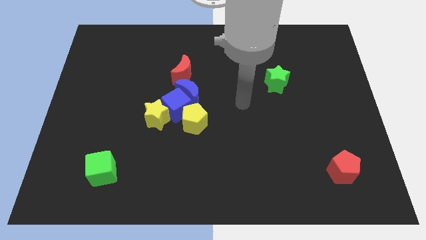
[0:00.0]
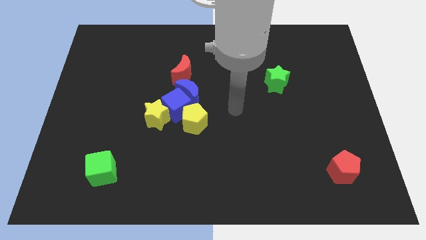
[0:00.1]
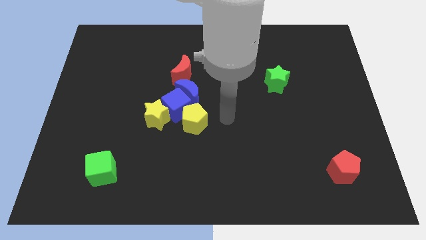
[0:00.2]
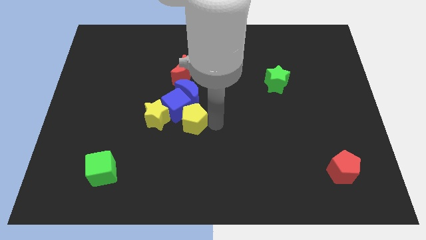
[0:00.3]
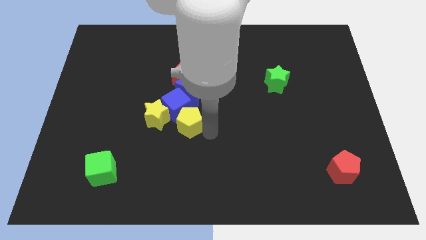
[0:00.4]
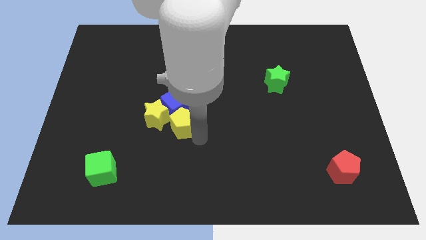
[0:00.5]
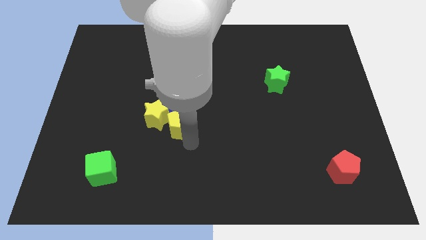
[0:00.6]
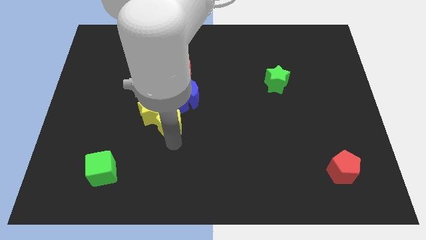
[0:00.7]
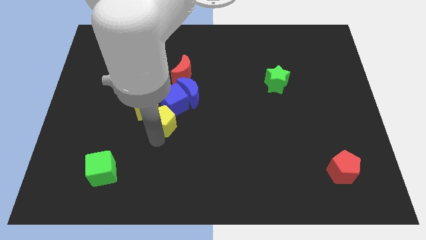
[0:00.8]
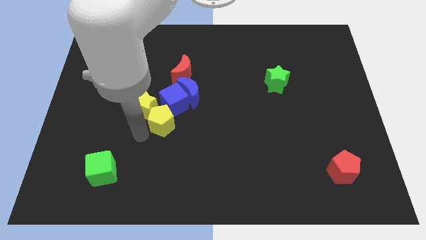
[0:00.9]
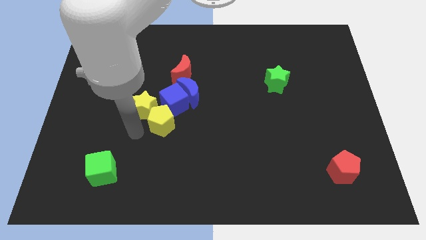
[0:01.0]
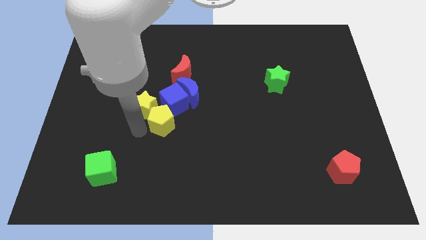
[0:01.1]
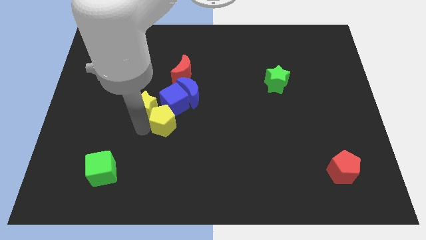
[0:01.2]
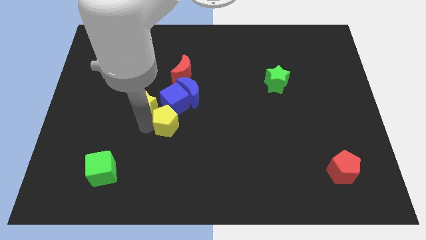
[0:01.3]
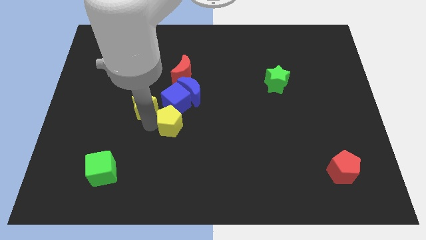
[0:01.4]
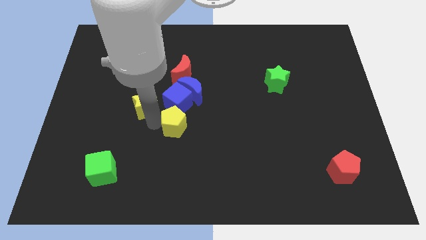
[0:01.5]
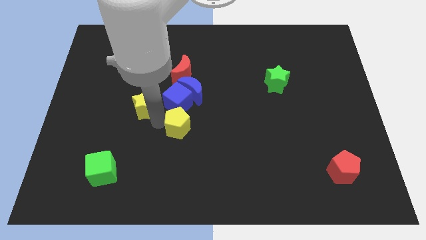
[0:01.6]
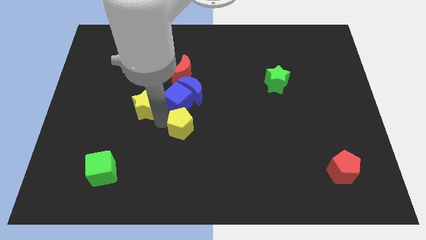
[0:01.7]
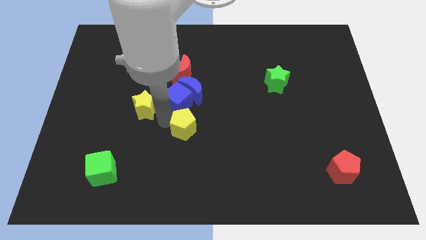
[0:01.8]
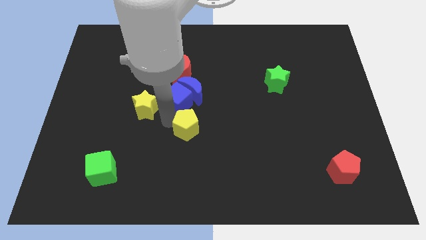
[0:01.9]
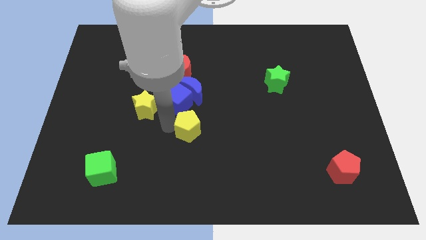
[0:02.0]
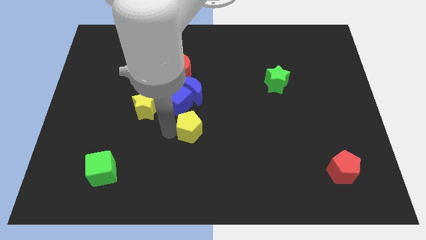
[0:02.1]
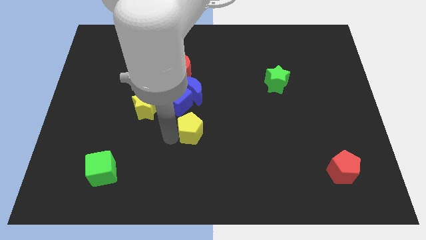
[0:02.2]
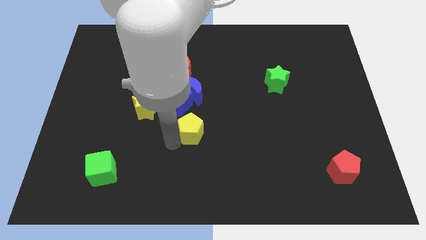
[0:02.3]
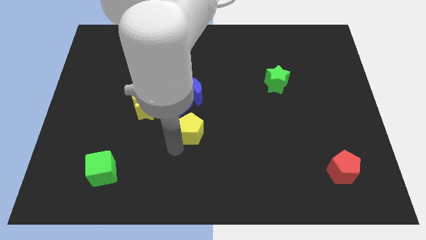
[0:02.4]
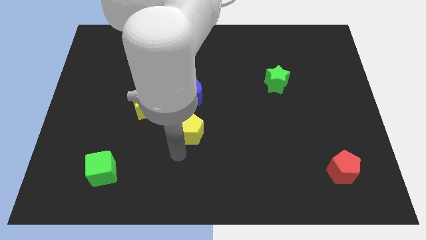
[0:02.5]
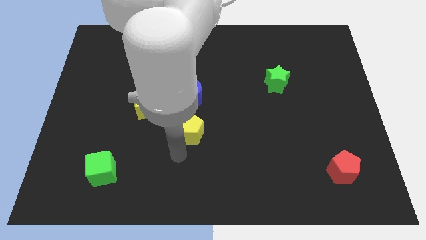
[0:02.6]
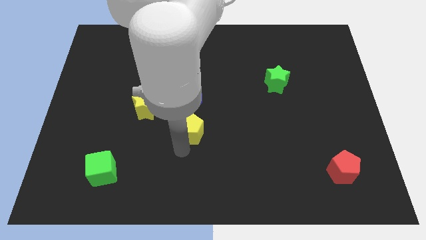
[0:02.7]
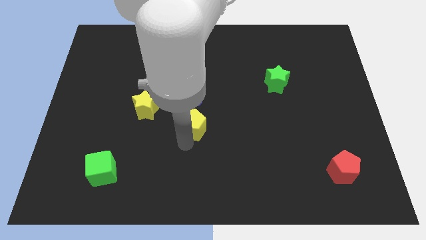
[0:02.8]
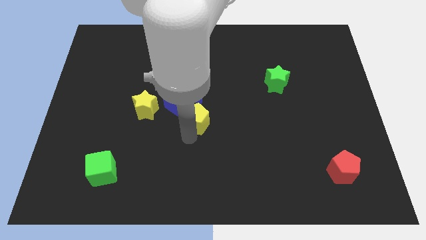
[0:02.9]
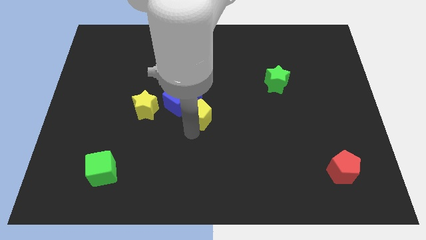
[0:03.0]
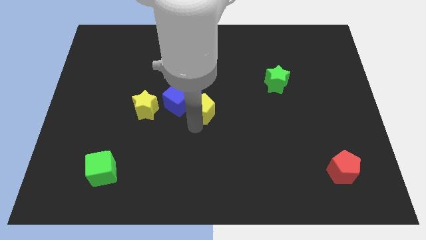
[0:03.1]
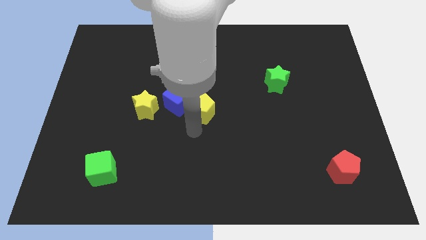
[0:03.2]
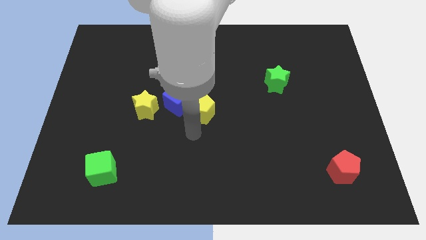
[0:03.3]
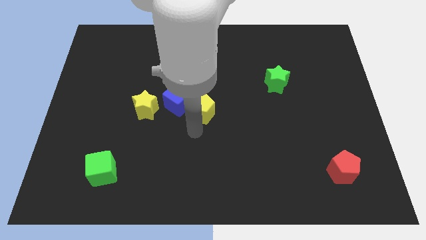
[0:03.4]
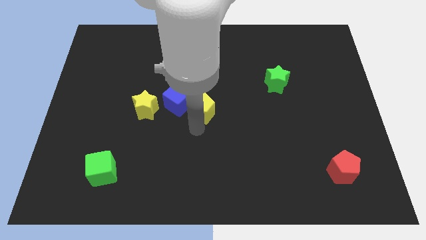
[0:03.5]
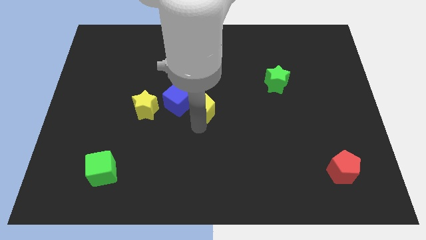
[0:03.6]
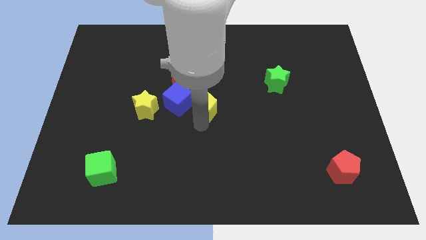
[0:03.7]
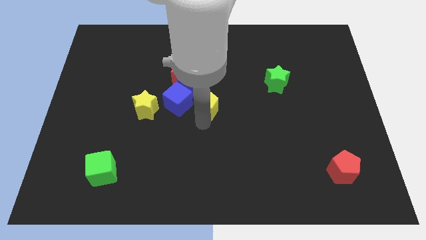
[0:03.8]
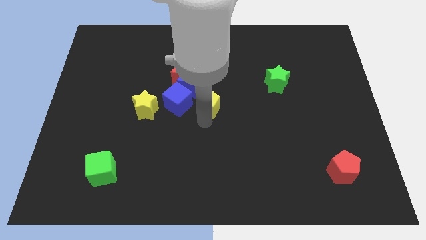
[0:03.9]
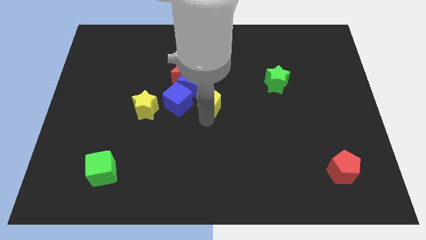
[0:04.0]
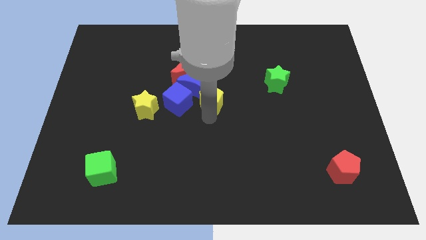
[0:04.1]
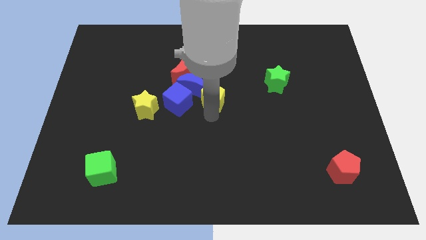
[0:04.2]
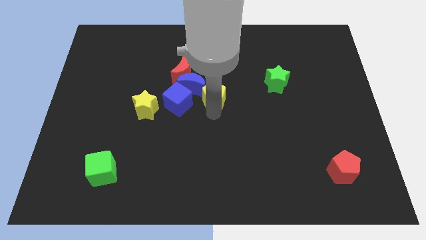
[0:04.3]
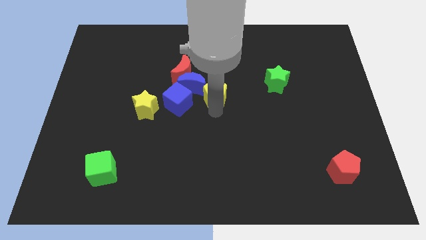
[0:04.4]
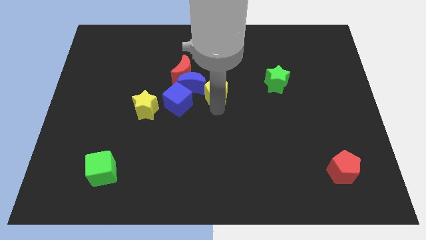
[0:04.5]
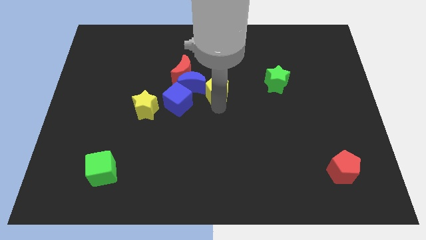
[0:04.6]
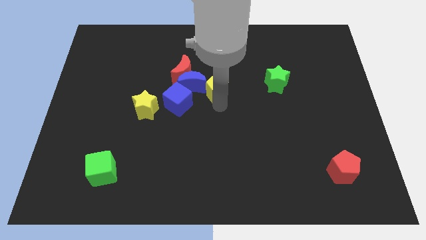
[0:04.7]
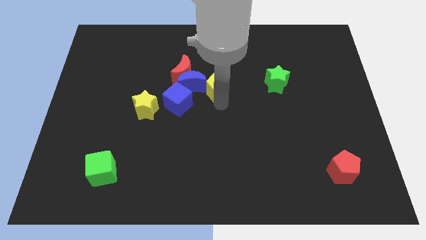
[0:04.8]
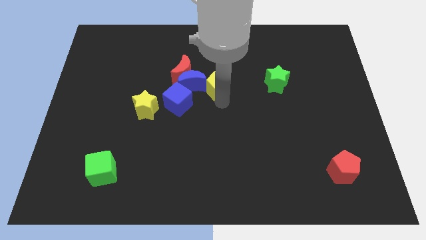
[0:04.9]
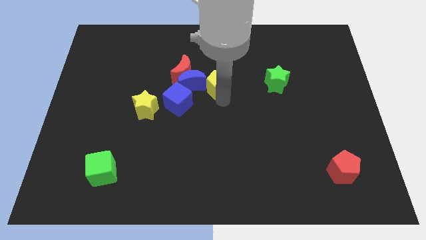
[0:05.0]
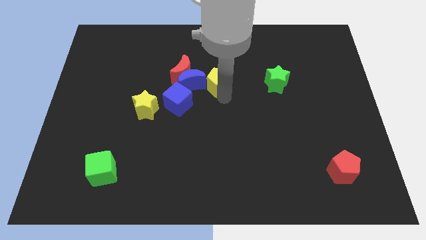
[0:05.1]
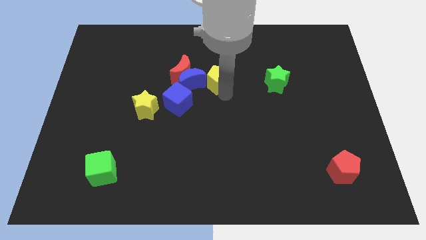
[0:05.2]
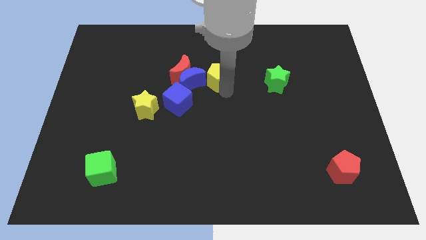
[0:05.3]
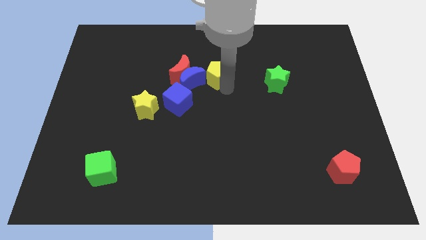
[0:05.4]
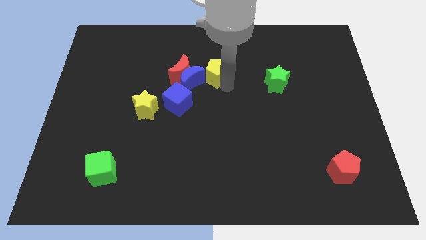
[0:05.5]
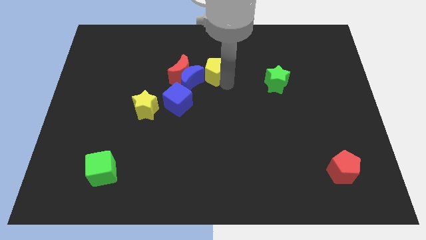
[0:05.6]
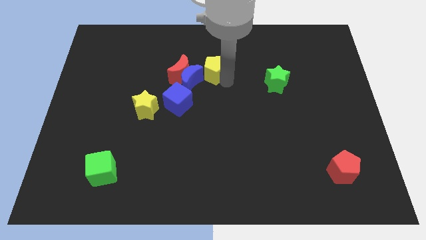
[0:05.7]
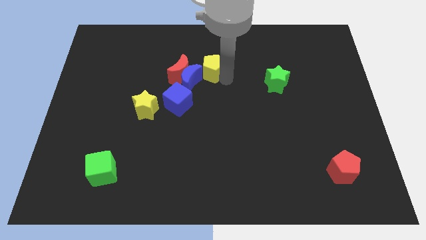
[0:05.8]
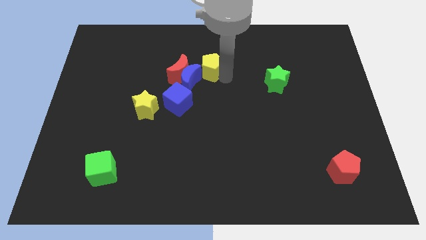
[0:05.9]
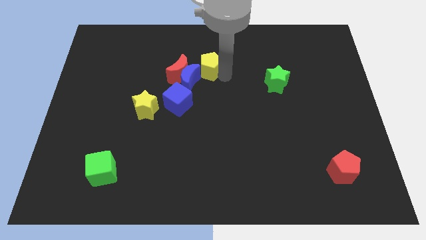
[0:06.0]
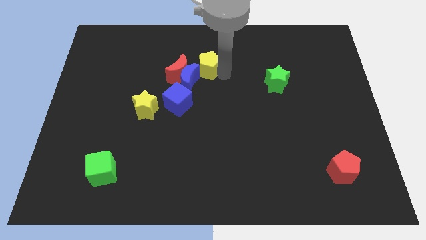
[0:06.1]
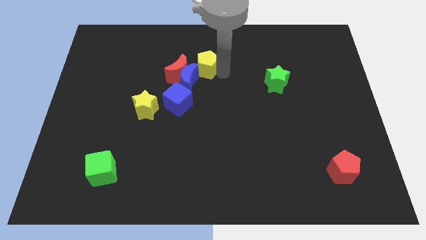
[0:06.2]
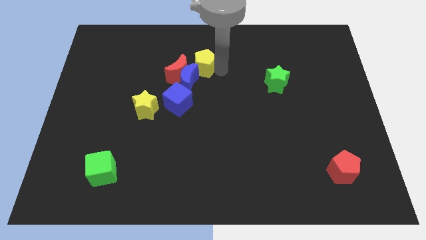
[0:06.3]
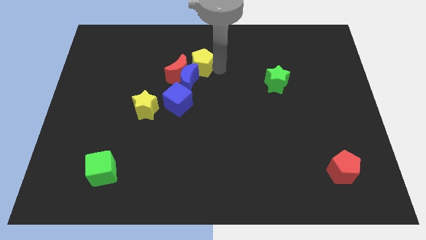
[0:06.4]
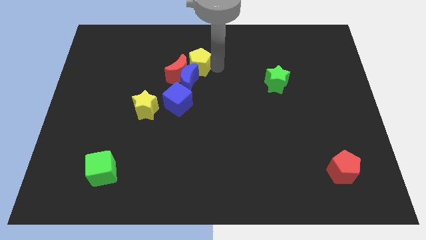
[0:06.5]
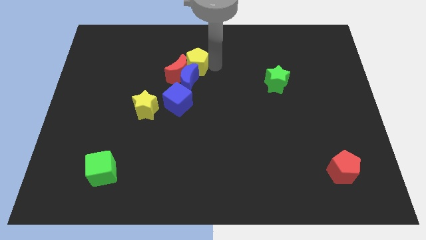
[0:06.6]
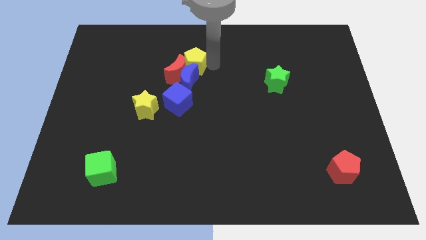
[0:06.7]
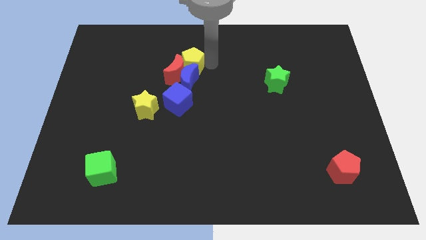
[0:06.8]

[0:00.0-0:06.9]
move the yellow pentagon diagonally up and to the left of the blue moon

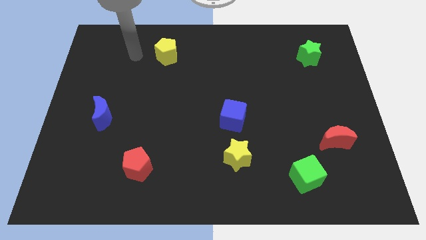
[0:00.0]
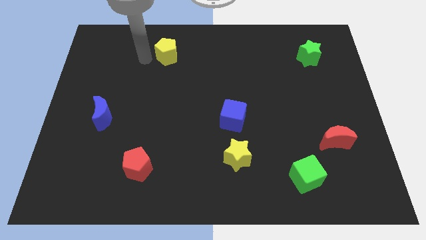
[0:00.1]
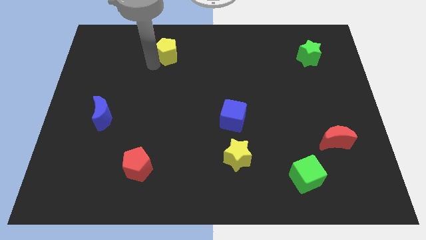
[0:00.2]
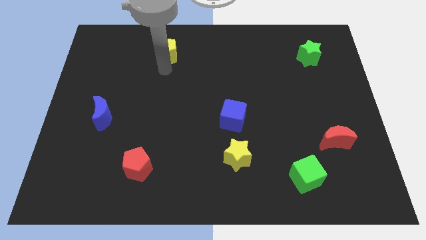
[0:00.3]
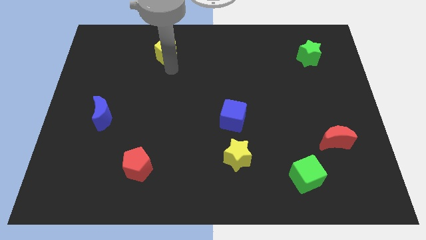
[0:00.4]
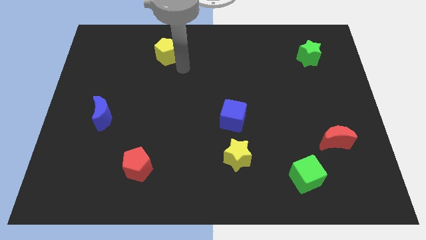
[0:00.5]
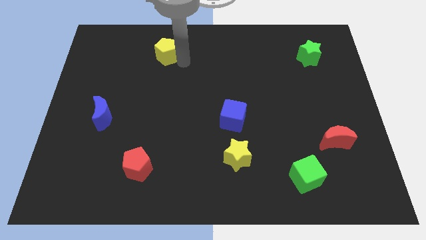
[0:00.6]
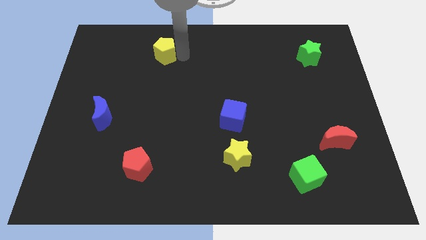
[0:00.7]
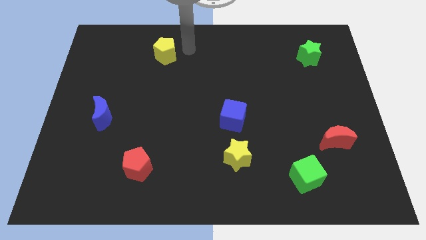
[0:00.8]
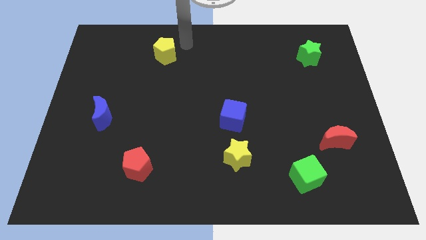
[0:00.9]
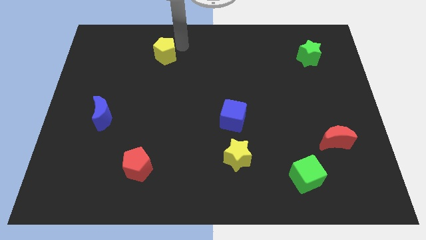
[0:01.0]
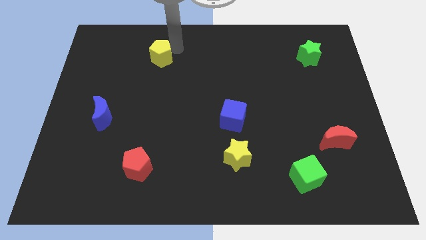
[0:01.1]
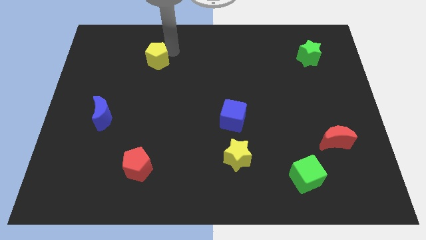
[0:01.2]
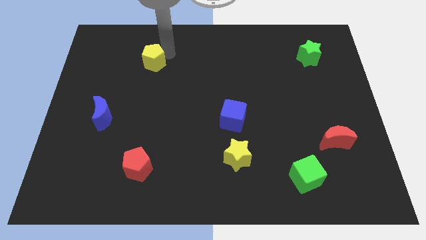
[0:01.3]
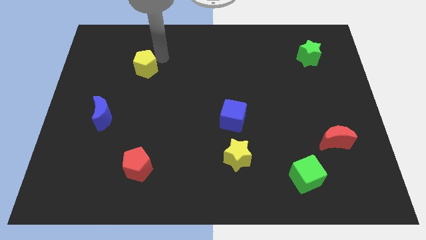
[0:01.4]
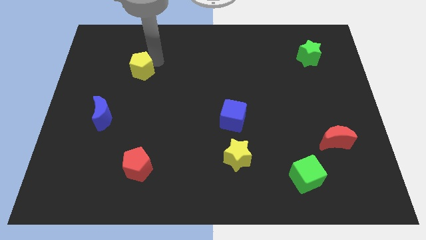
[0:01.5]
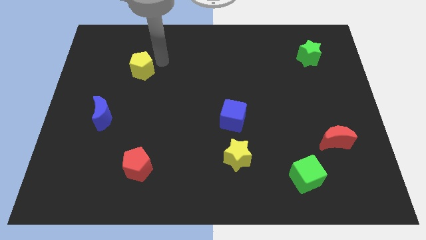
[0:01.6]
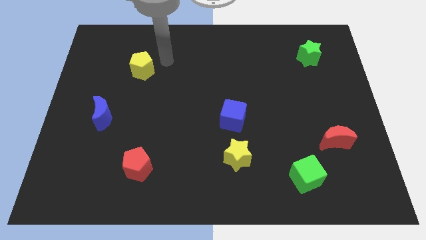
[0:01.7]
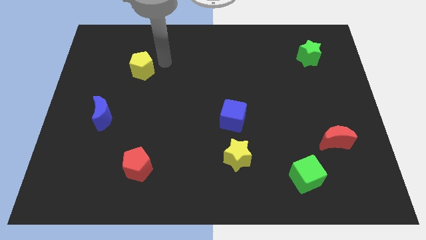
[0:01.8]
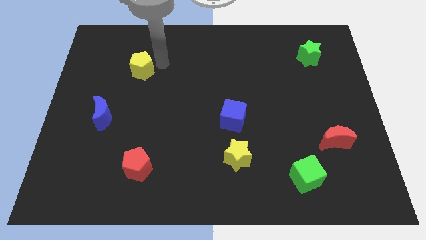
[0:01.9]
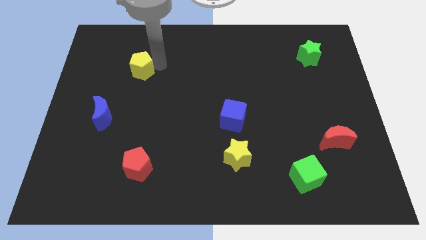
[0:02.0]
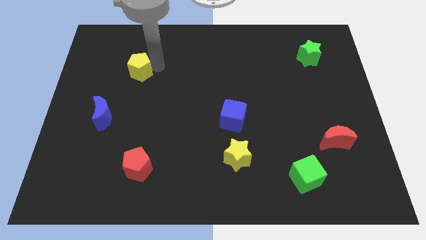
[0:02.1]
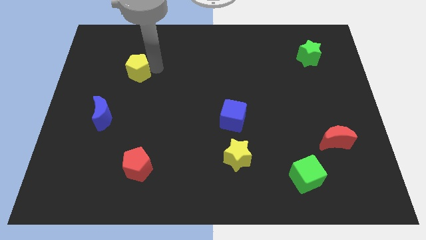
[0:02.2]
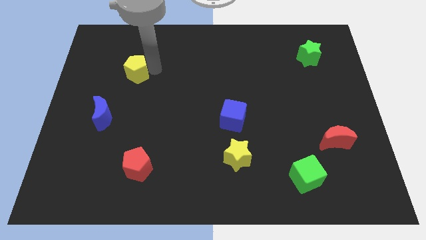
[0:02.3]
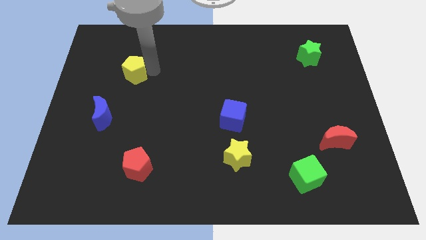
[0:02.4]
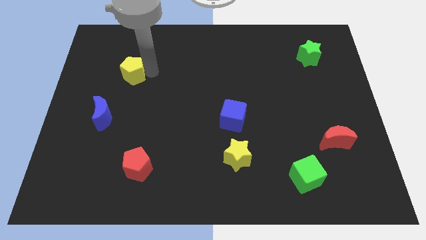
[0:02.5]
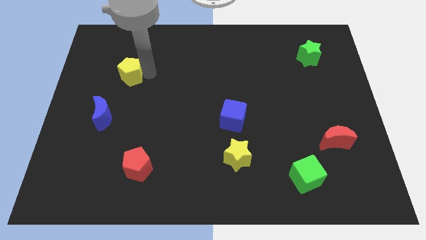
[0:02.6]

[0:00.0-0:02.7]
put the yellow pentagon to the top of the blue moon
